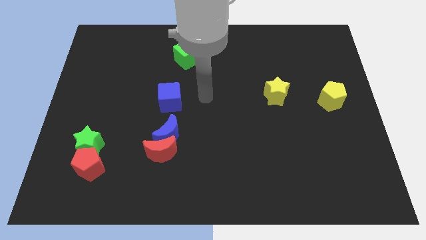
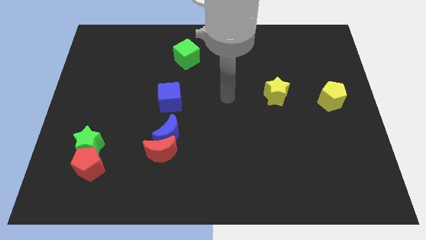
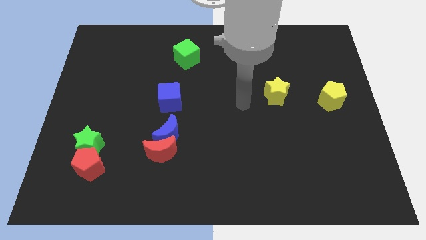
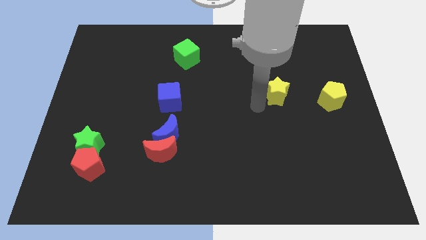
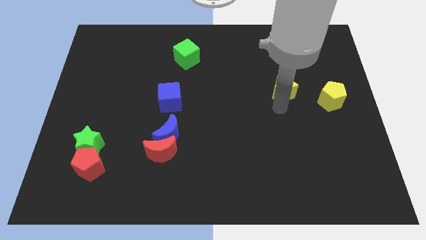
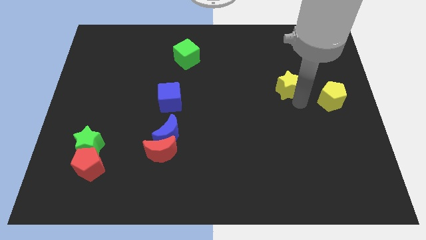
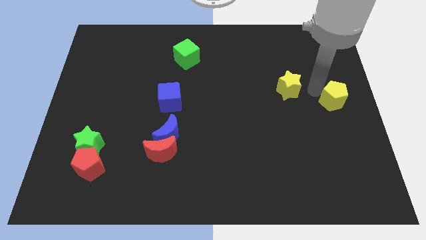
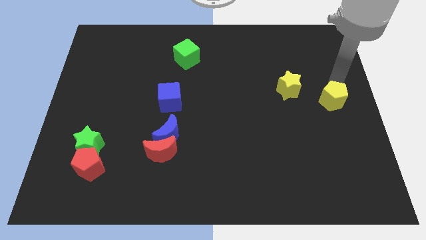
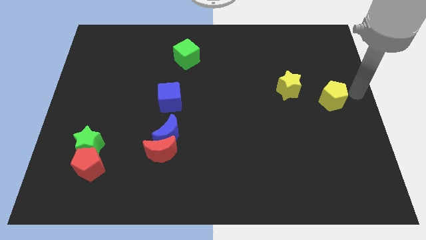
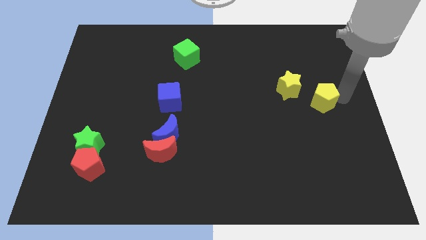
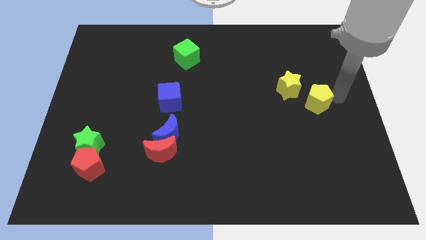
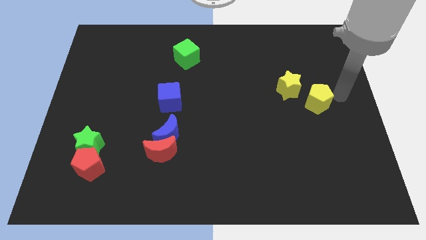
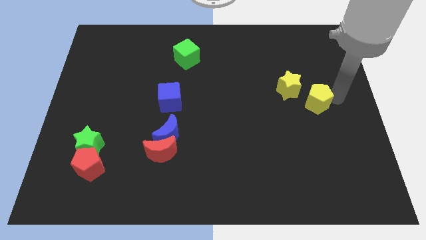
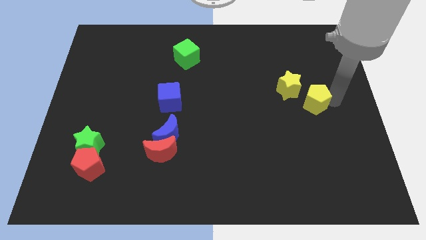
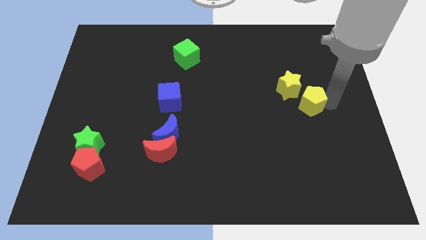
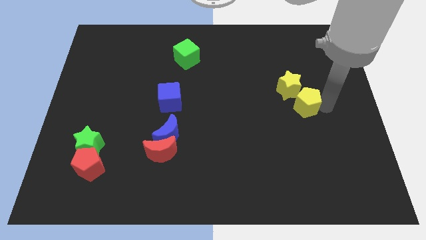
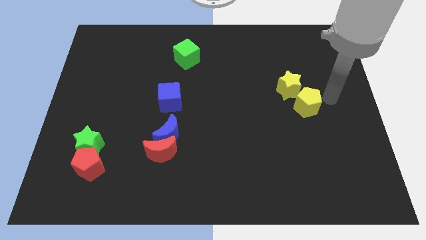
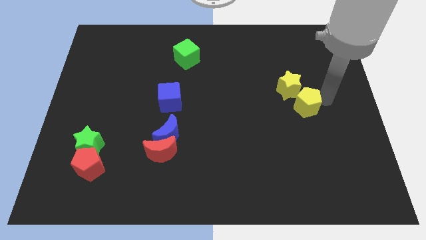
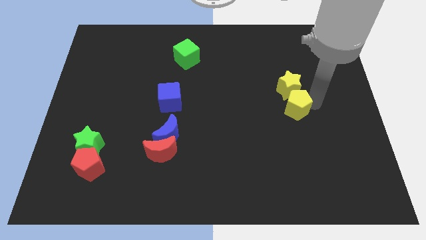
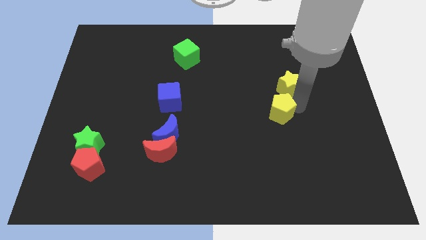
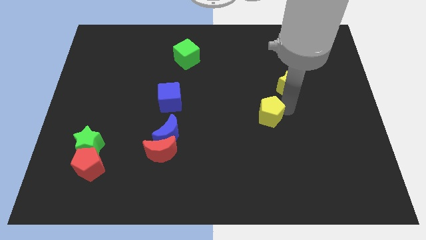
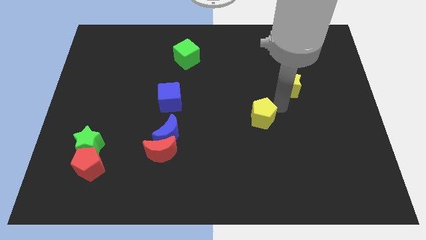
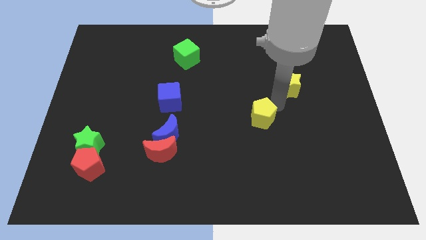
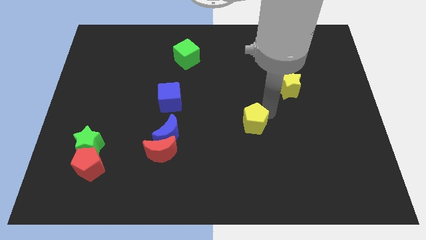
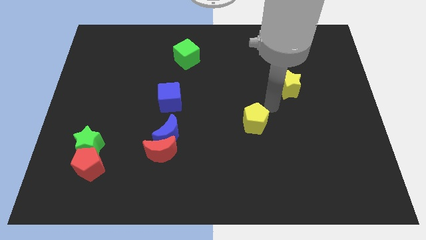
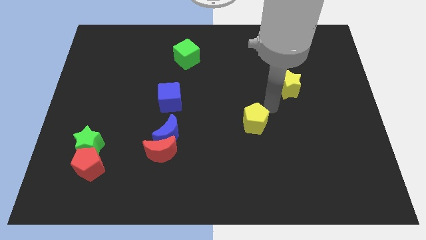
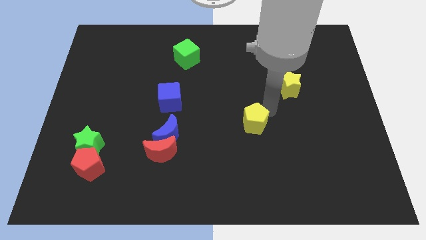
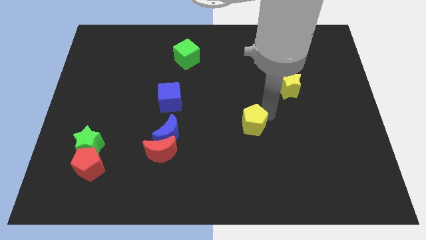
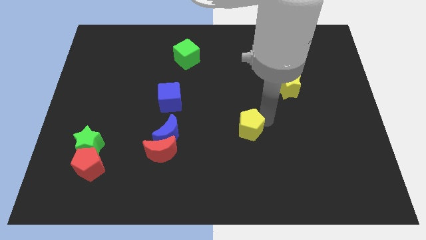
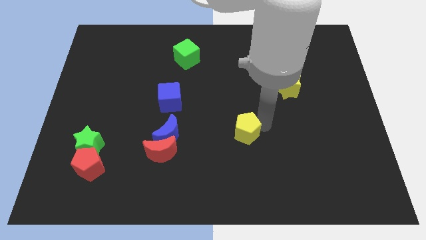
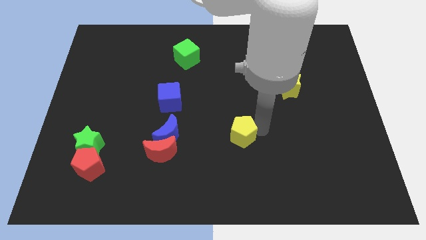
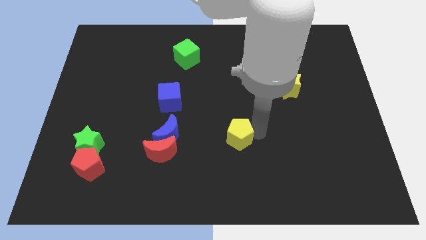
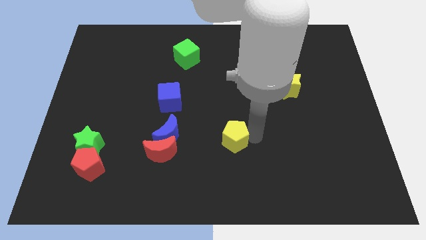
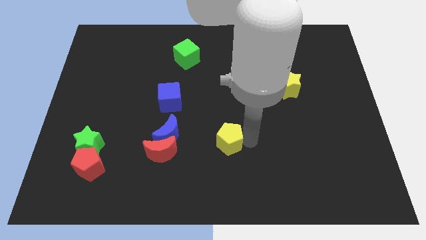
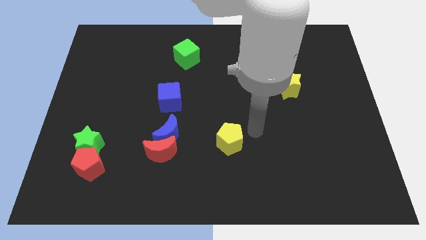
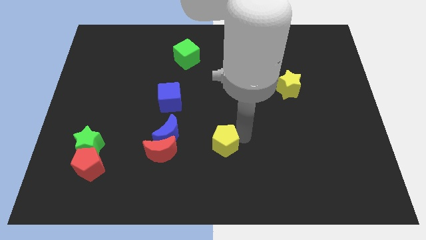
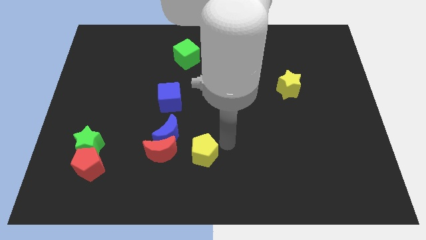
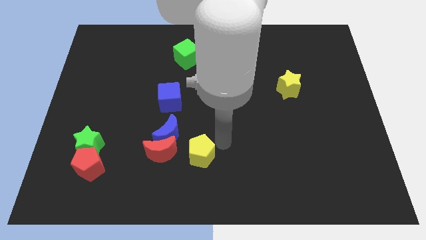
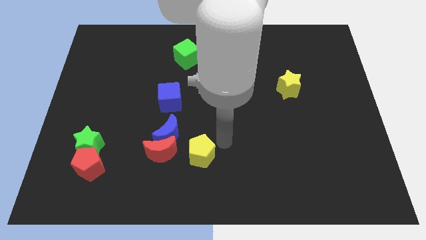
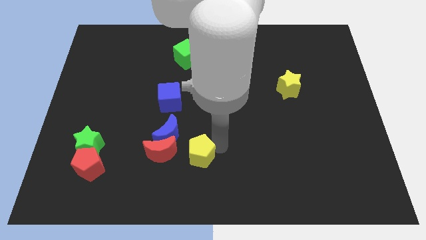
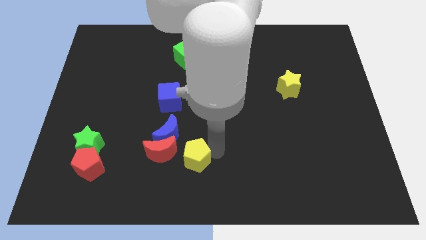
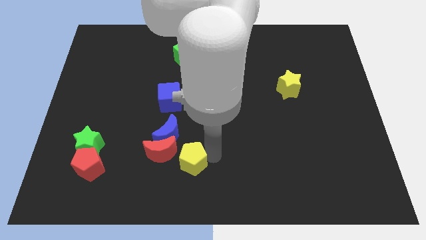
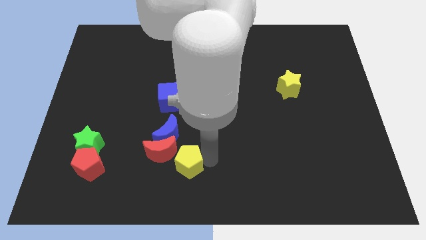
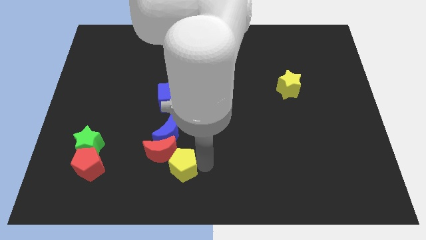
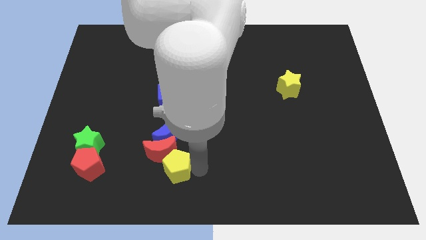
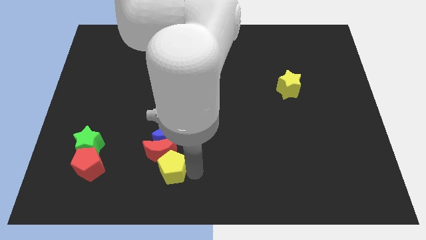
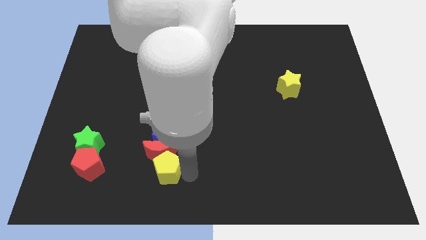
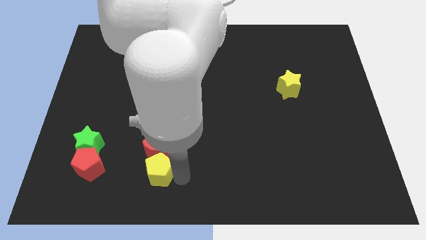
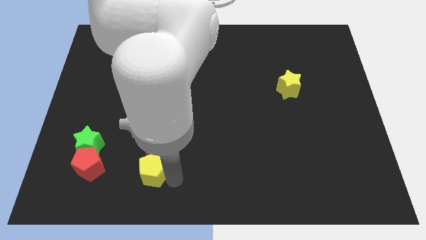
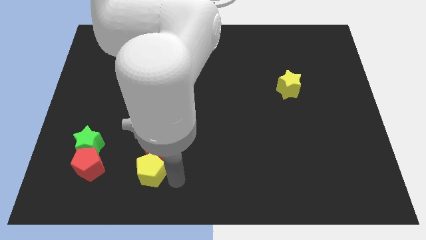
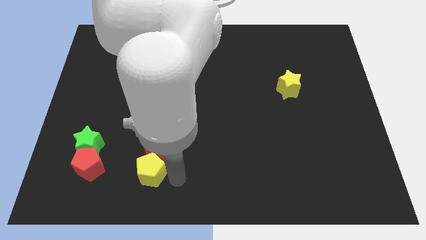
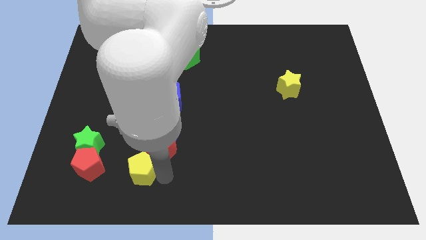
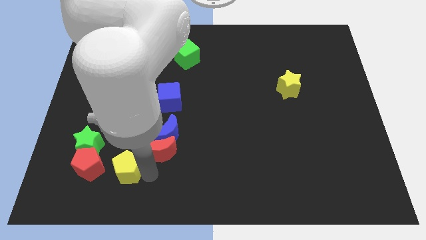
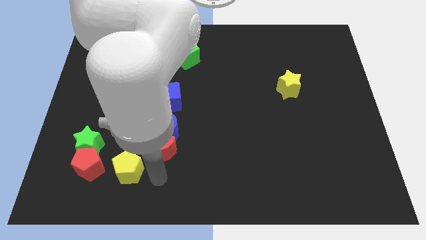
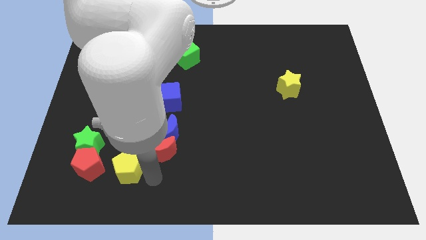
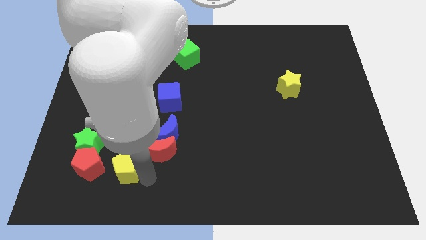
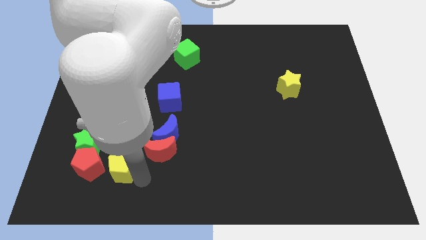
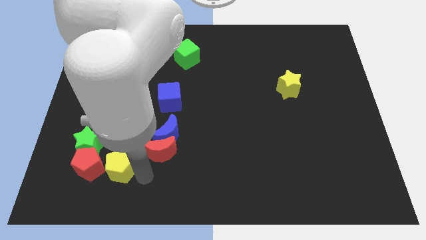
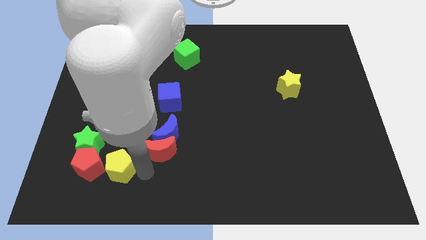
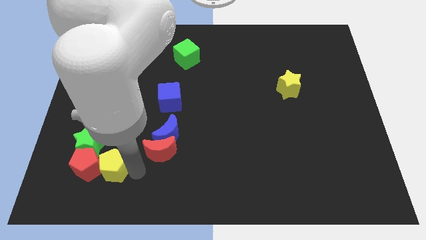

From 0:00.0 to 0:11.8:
slide the yellow pentagon close to the red pentagon

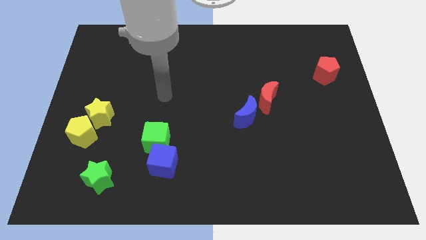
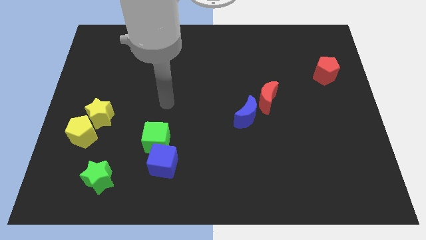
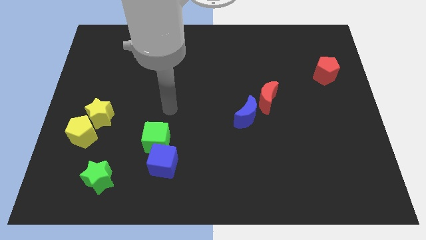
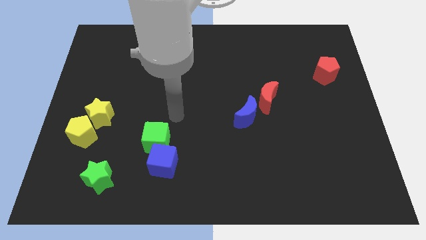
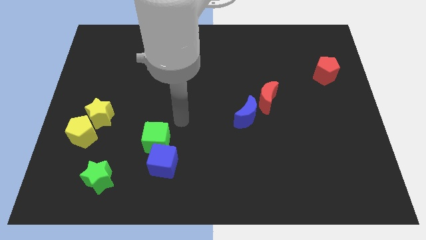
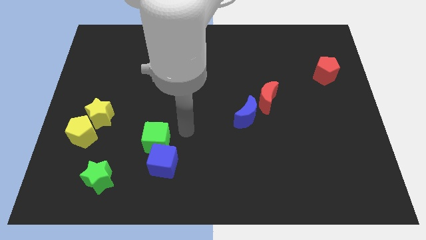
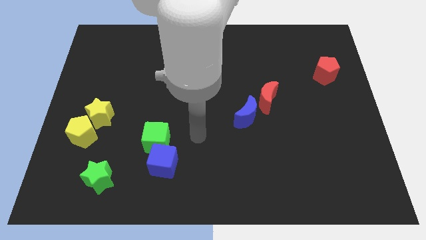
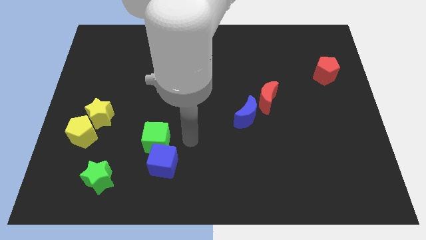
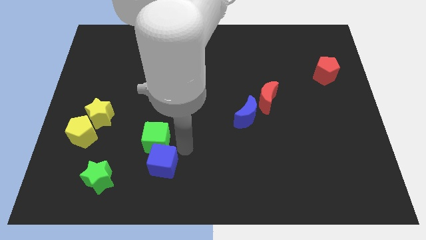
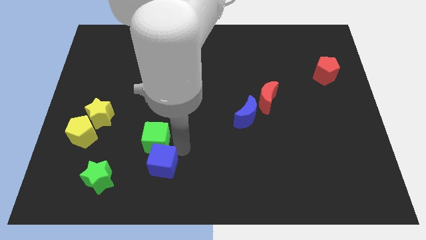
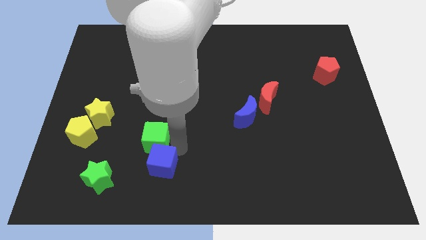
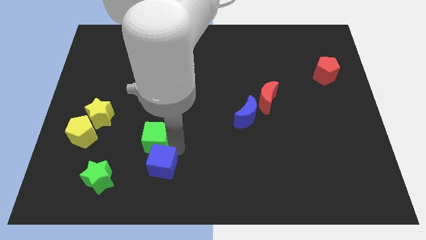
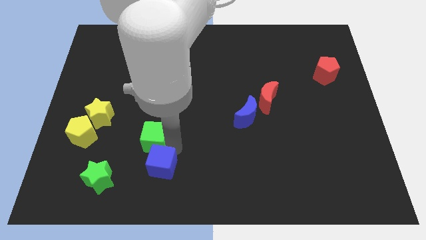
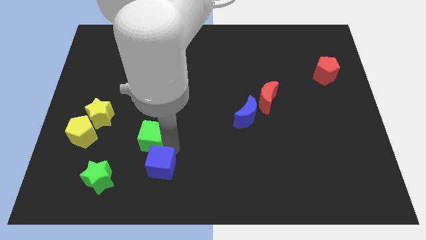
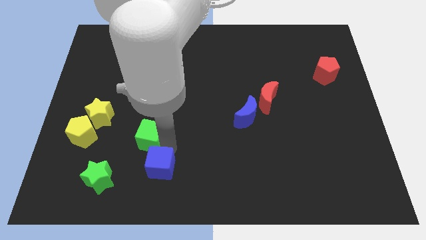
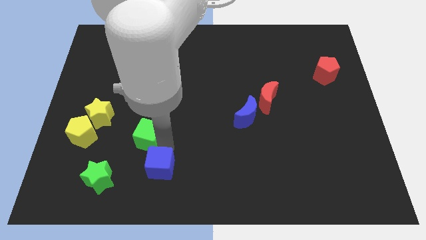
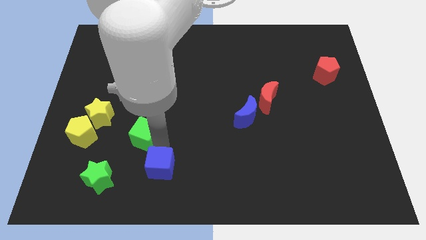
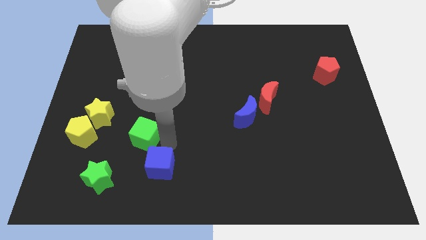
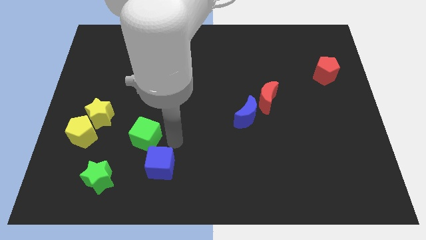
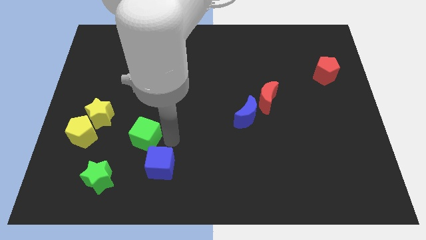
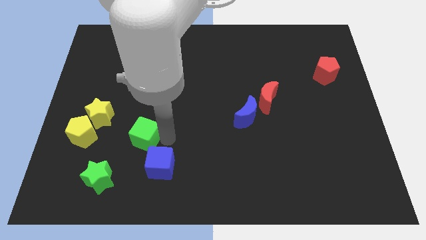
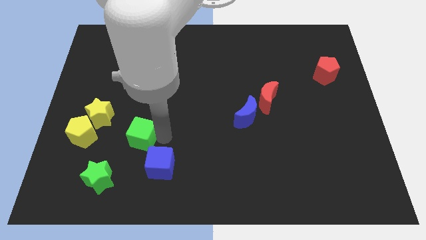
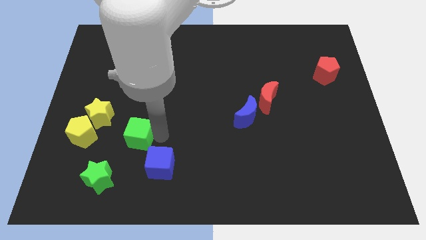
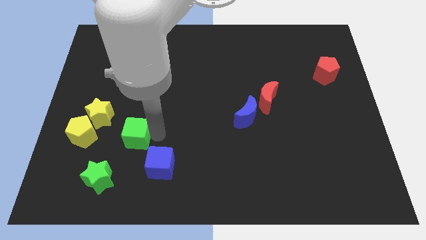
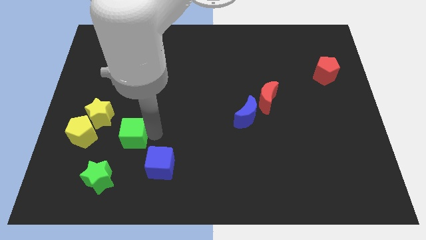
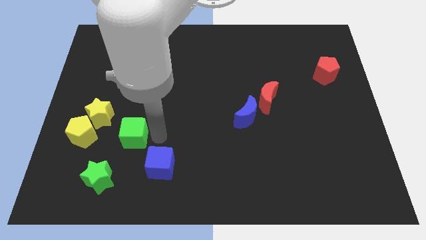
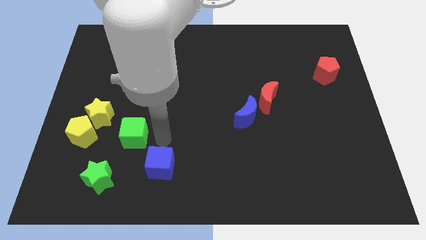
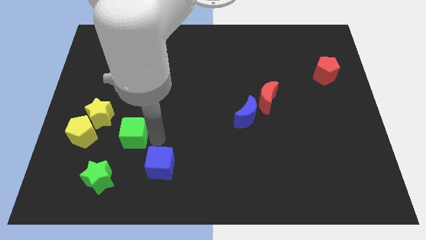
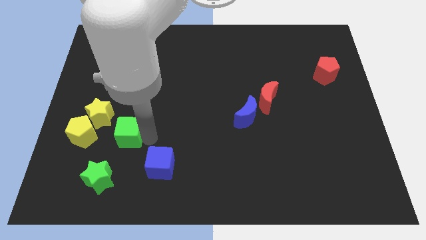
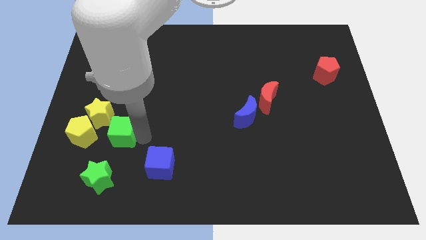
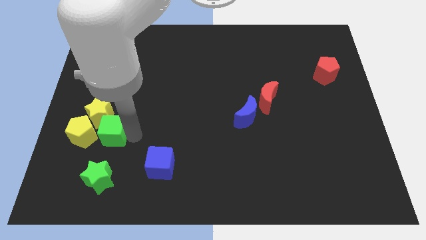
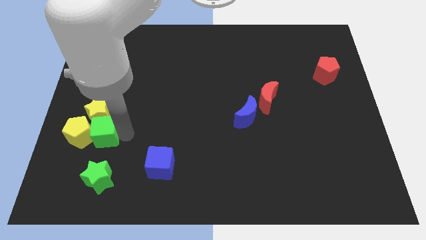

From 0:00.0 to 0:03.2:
put the green cube next to the yellow pentagon
